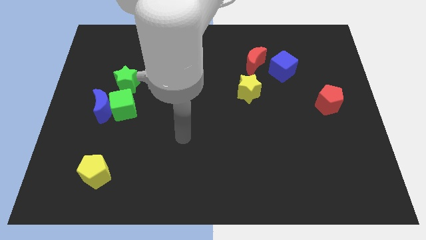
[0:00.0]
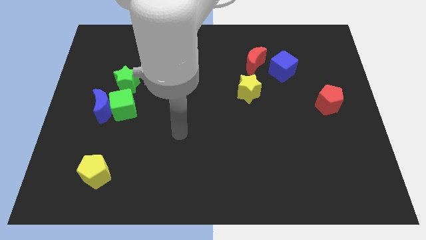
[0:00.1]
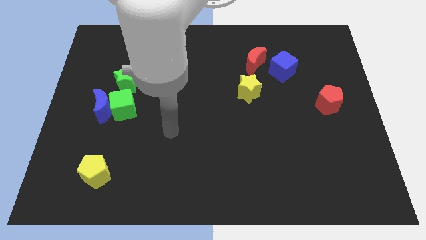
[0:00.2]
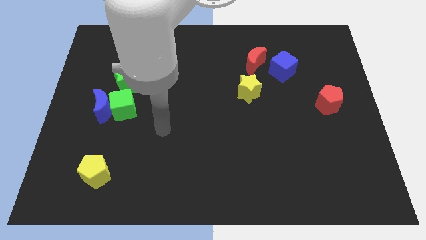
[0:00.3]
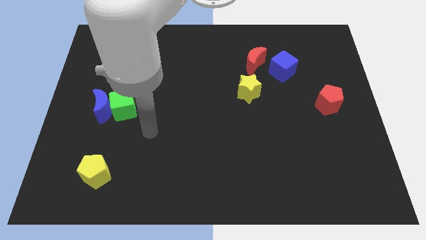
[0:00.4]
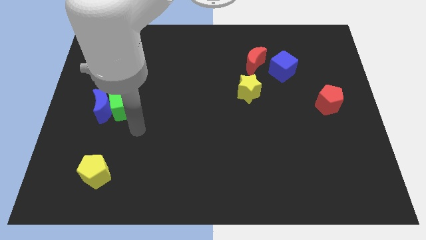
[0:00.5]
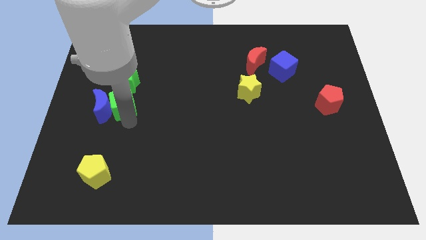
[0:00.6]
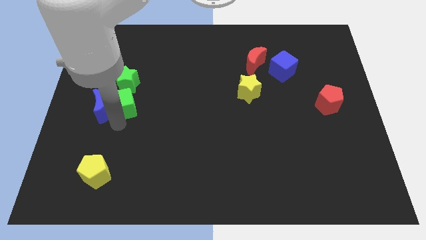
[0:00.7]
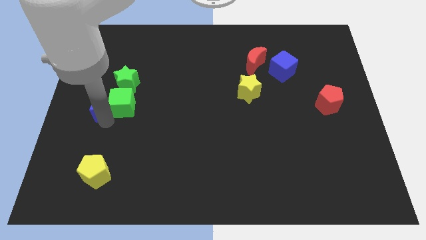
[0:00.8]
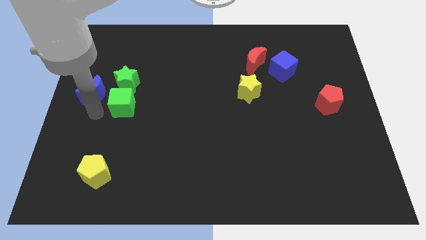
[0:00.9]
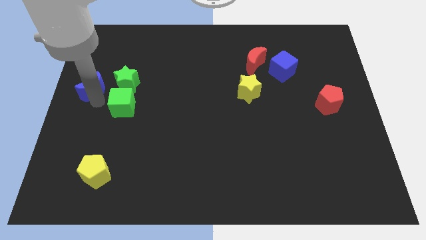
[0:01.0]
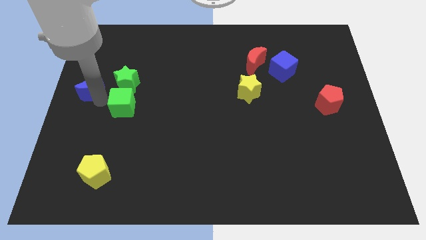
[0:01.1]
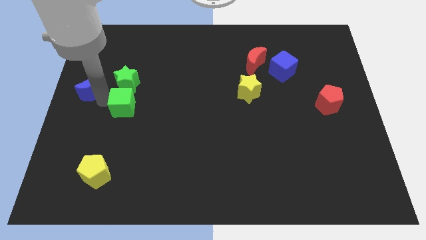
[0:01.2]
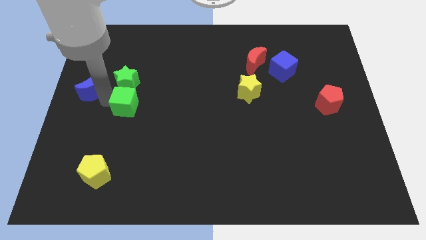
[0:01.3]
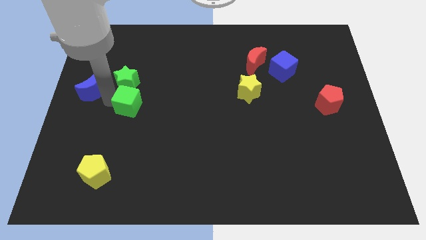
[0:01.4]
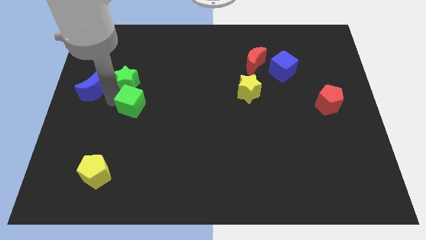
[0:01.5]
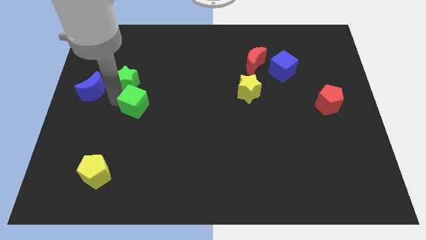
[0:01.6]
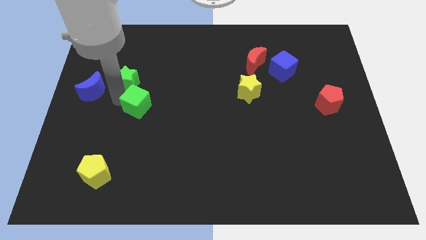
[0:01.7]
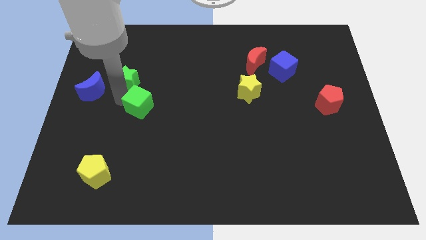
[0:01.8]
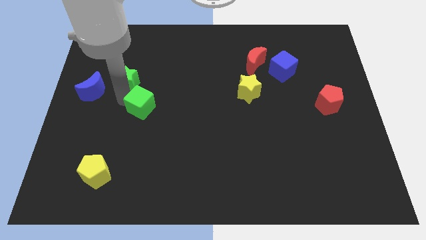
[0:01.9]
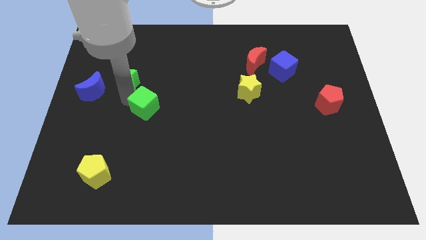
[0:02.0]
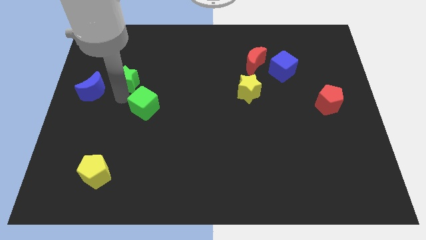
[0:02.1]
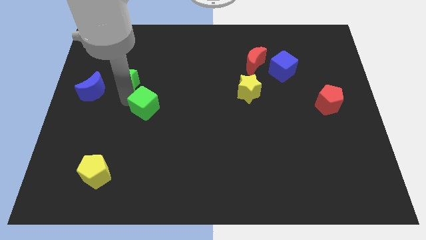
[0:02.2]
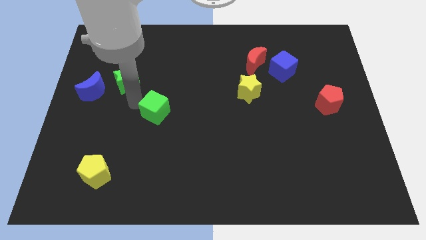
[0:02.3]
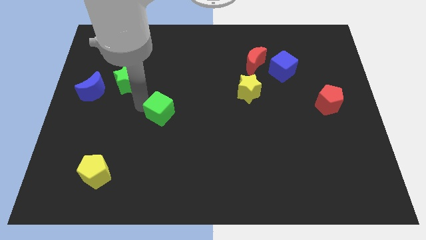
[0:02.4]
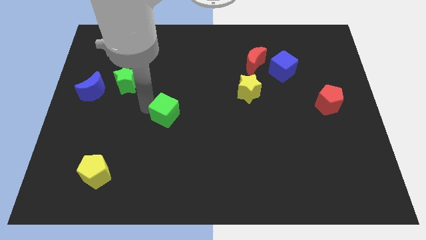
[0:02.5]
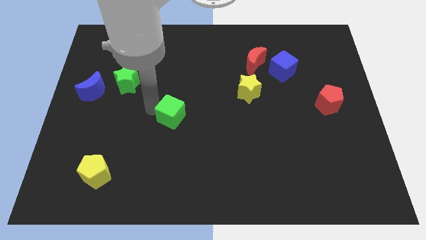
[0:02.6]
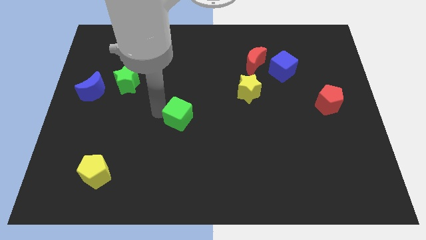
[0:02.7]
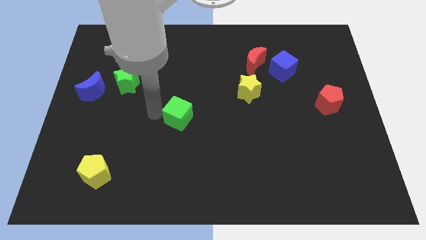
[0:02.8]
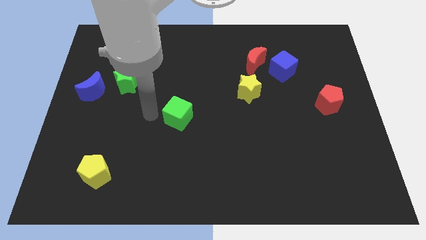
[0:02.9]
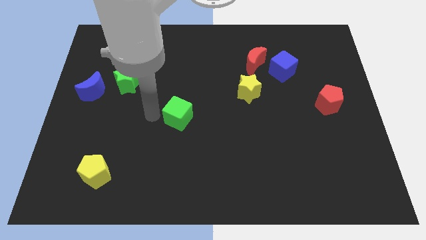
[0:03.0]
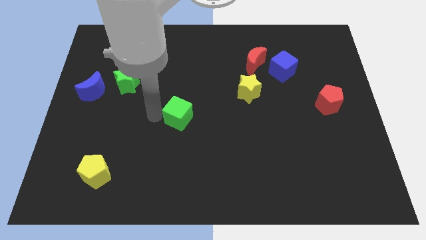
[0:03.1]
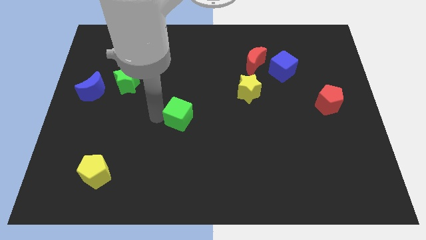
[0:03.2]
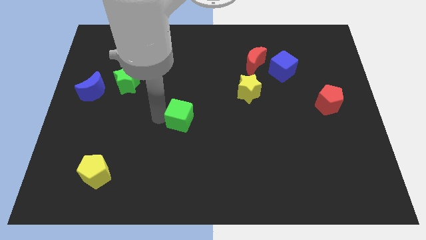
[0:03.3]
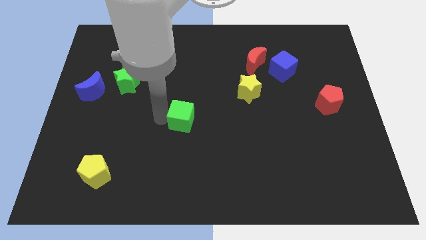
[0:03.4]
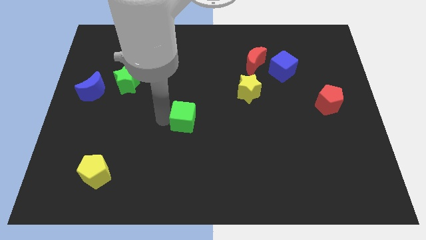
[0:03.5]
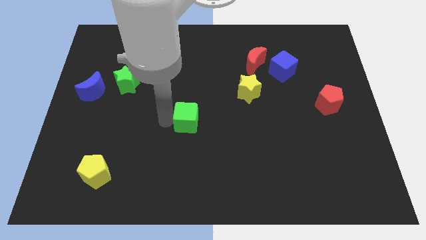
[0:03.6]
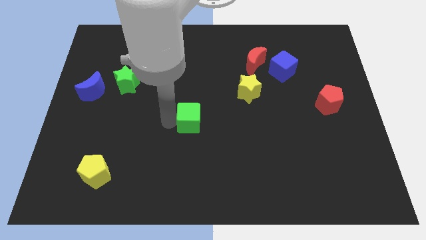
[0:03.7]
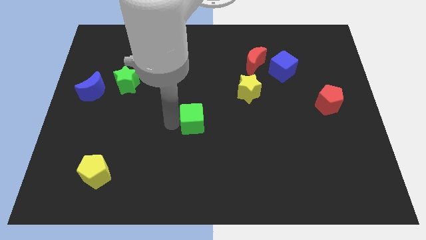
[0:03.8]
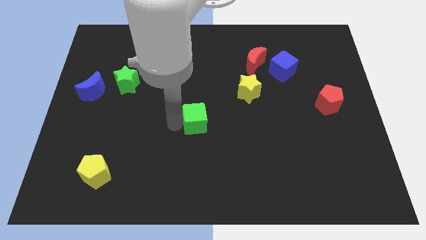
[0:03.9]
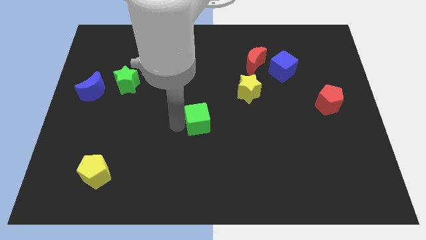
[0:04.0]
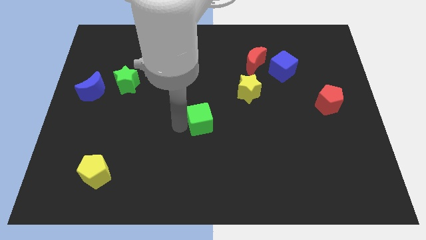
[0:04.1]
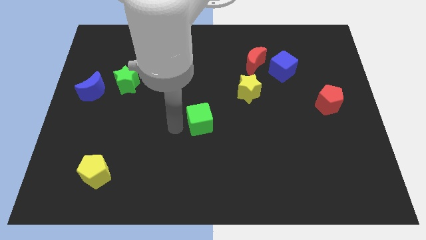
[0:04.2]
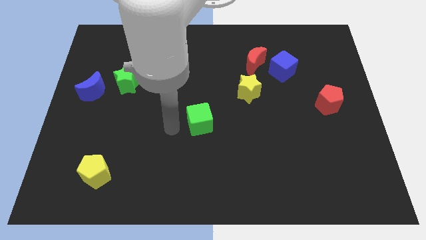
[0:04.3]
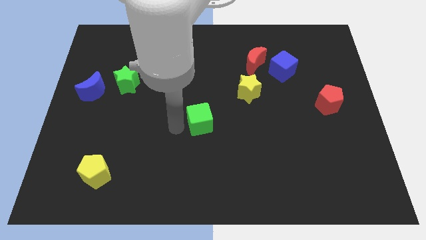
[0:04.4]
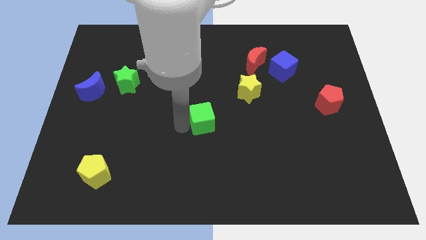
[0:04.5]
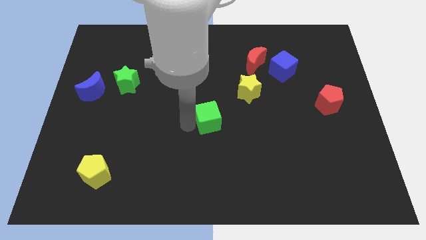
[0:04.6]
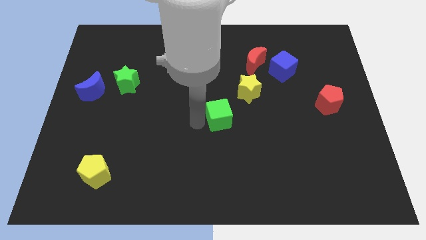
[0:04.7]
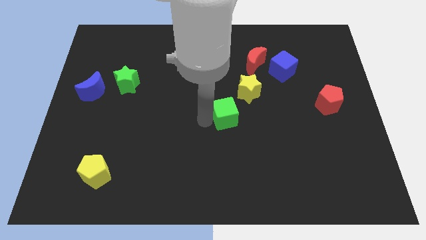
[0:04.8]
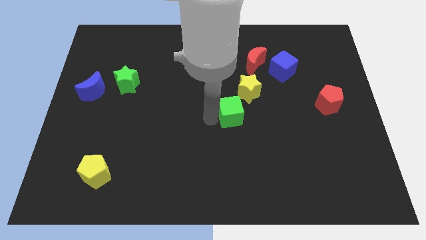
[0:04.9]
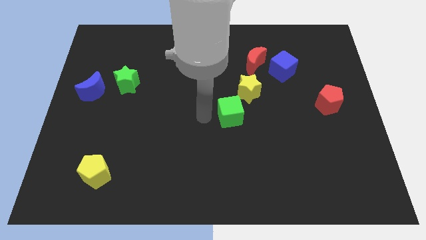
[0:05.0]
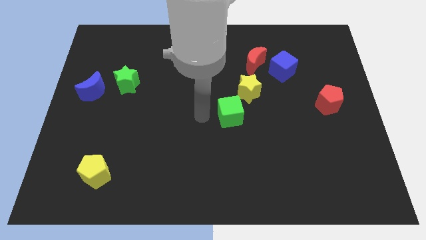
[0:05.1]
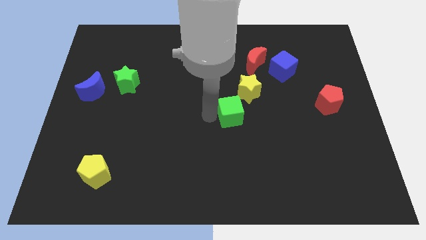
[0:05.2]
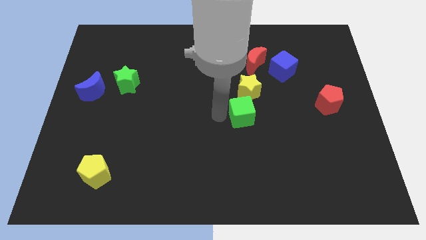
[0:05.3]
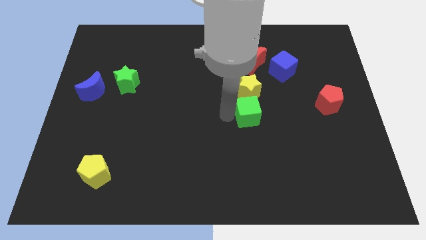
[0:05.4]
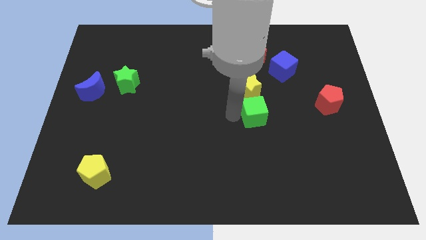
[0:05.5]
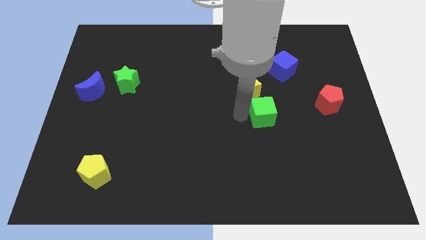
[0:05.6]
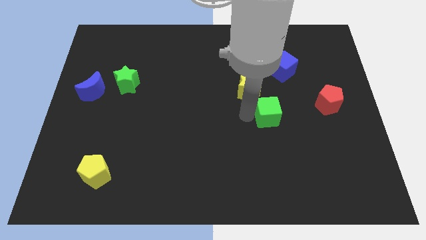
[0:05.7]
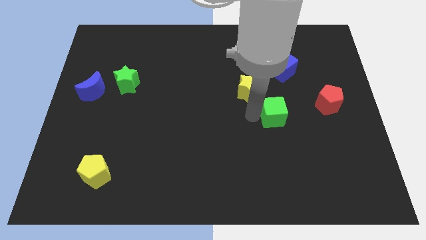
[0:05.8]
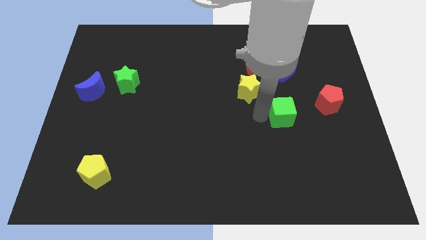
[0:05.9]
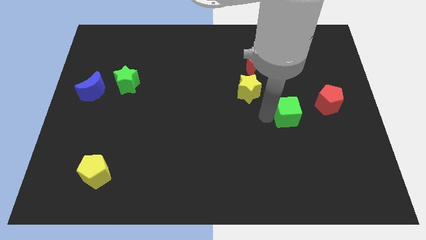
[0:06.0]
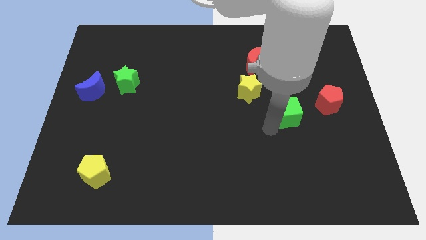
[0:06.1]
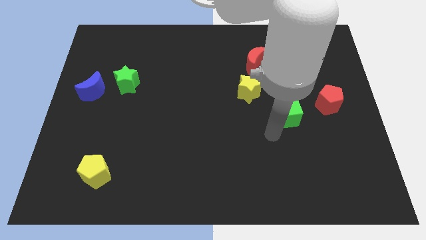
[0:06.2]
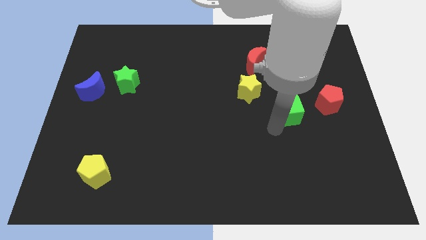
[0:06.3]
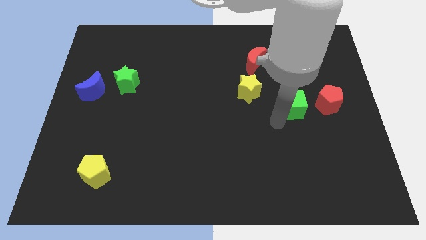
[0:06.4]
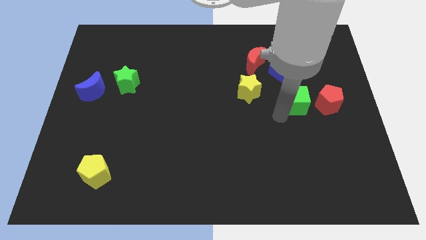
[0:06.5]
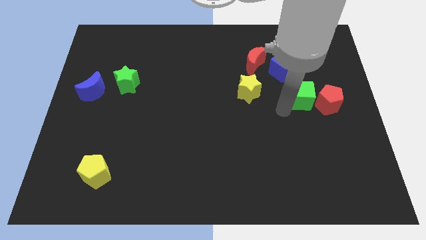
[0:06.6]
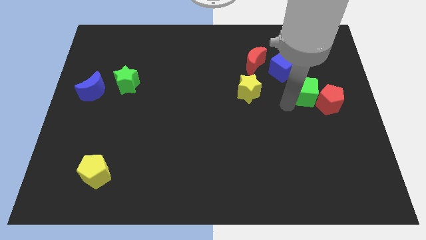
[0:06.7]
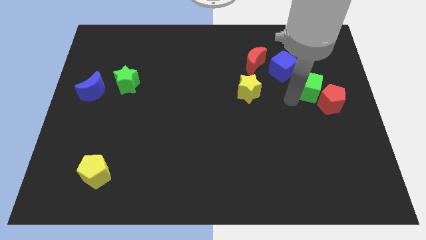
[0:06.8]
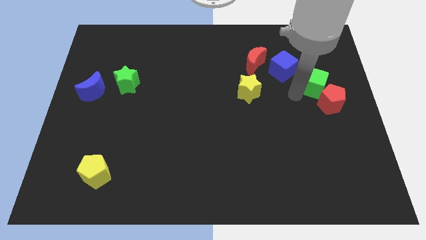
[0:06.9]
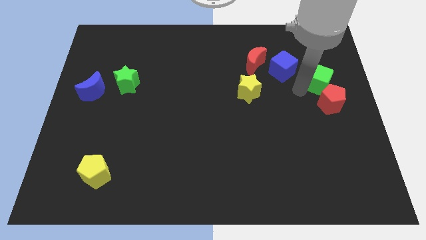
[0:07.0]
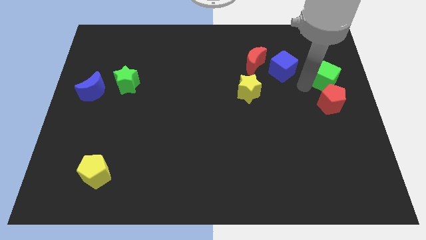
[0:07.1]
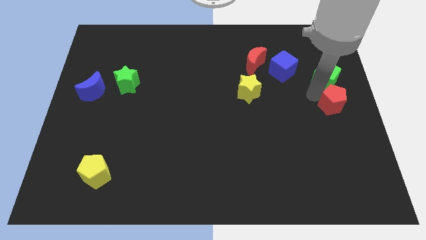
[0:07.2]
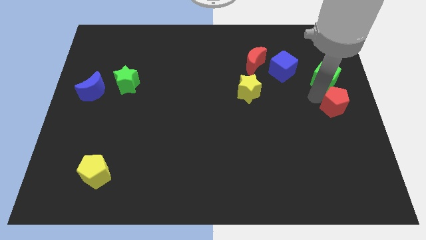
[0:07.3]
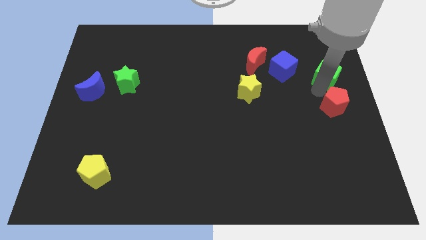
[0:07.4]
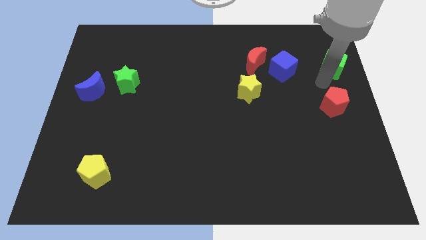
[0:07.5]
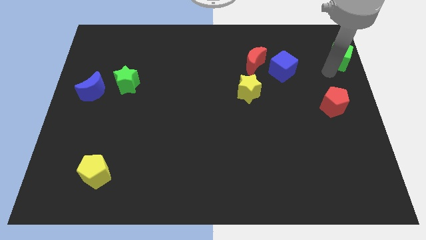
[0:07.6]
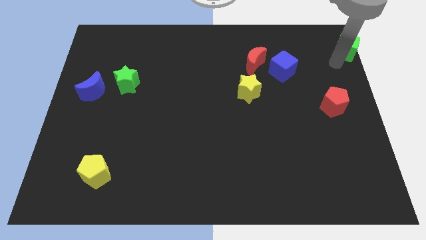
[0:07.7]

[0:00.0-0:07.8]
push the green cube to the upper right corner
